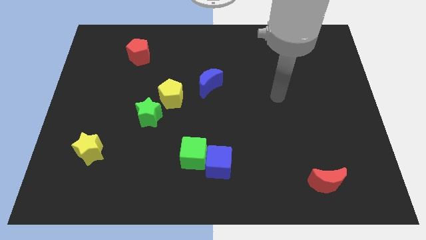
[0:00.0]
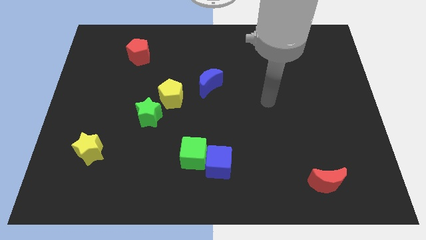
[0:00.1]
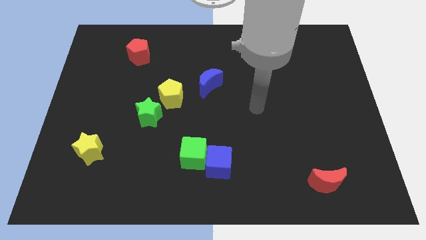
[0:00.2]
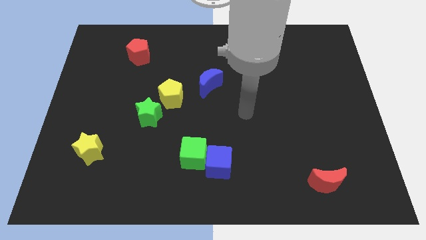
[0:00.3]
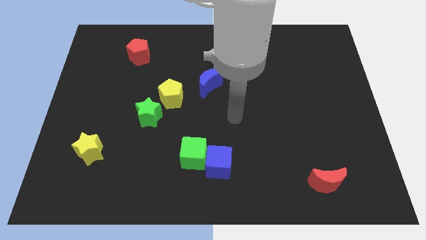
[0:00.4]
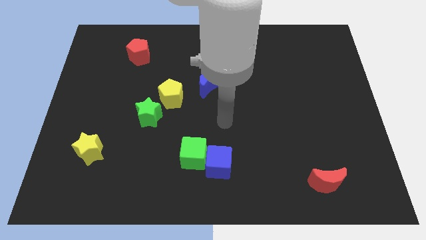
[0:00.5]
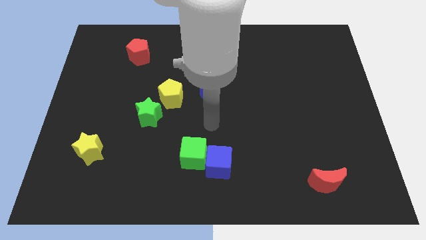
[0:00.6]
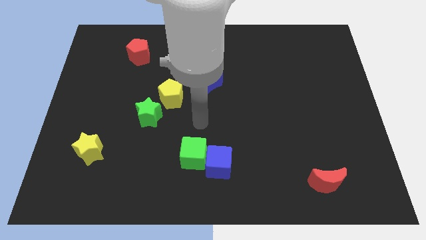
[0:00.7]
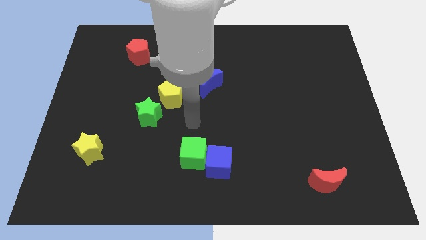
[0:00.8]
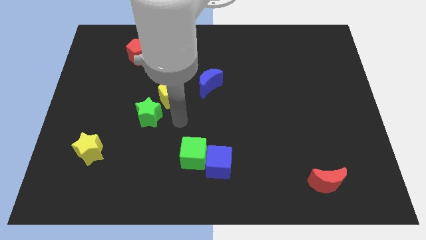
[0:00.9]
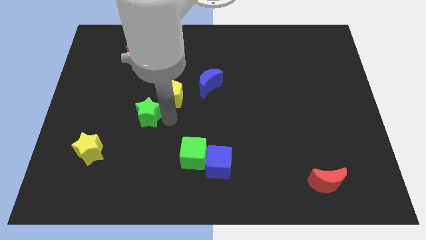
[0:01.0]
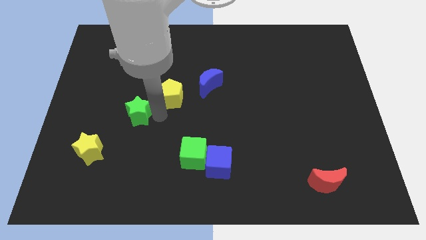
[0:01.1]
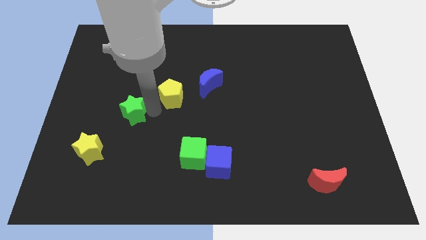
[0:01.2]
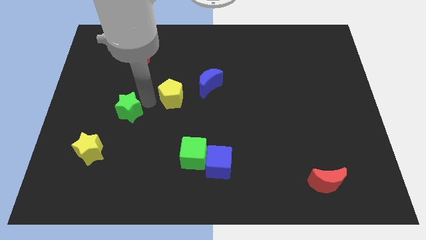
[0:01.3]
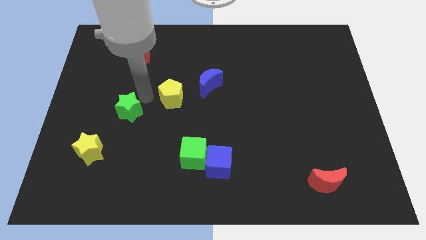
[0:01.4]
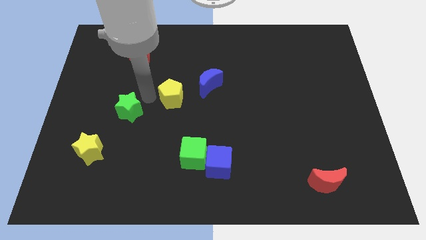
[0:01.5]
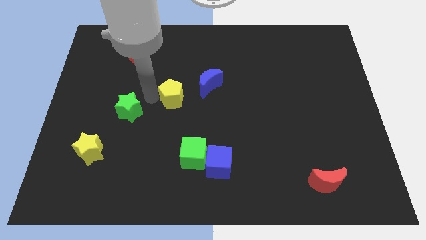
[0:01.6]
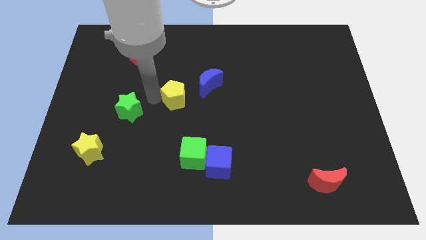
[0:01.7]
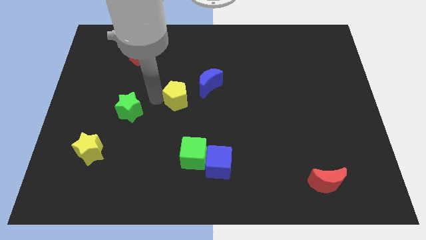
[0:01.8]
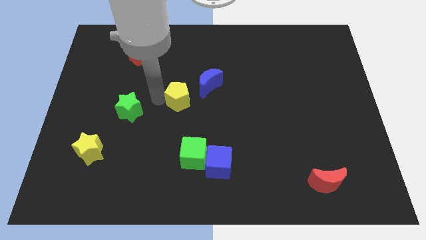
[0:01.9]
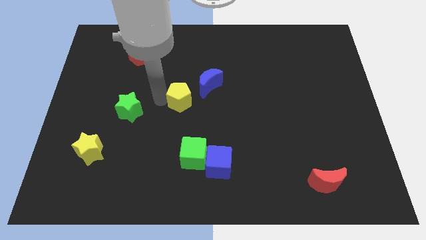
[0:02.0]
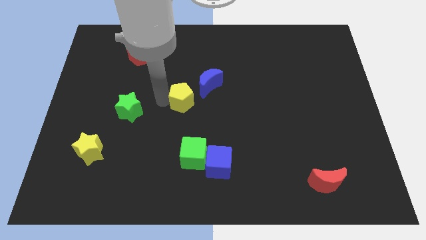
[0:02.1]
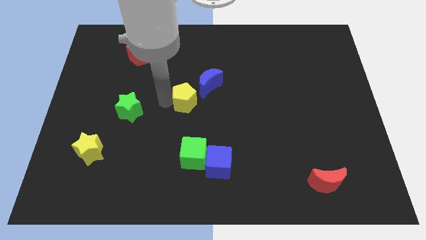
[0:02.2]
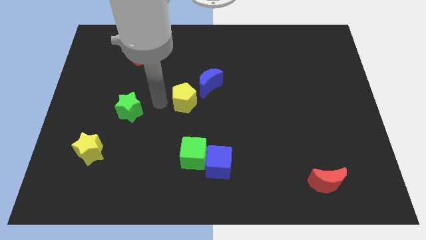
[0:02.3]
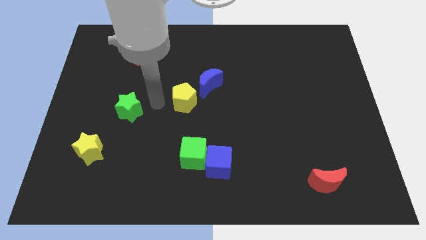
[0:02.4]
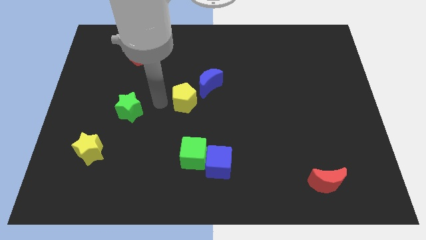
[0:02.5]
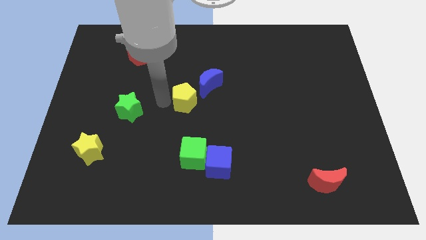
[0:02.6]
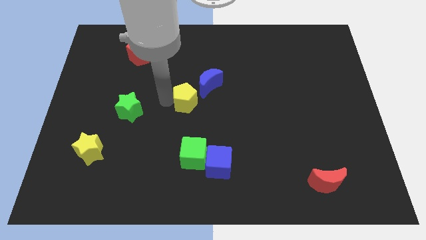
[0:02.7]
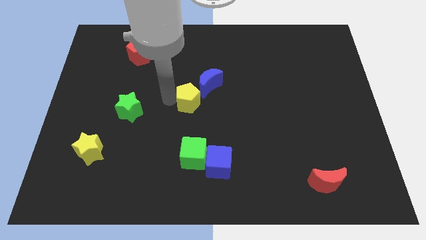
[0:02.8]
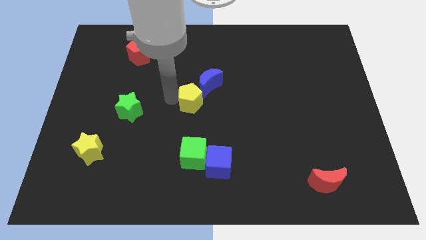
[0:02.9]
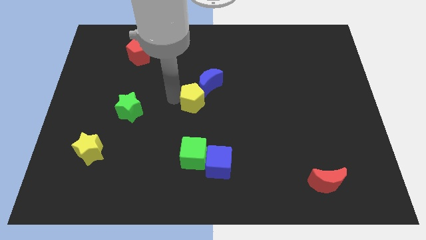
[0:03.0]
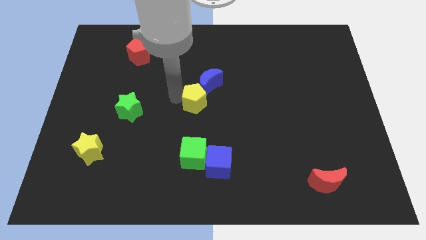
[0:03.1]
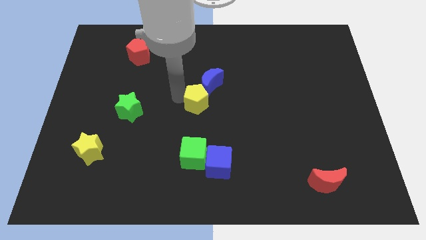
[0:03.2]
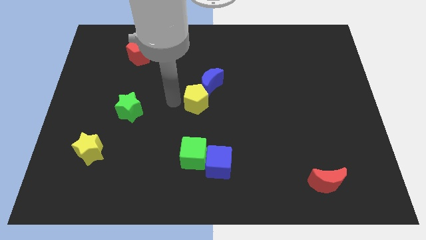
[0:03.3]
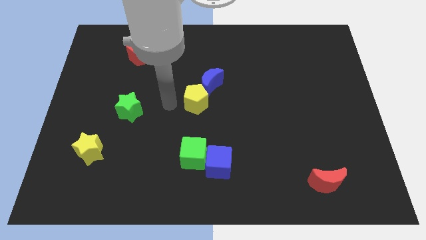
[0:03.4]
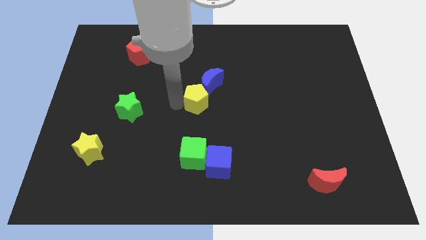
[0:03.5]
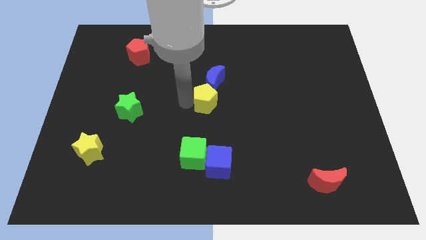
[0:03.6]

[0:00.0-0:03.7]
move the yellow pentagon to the right somewhat

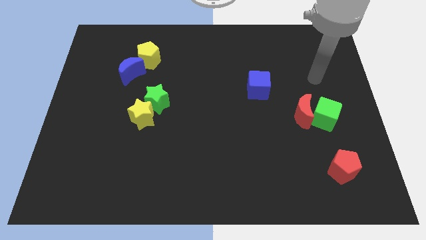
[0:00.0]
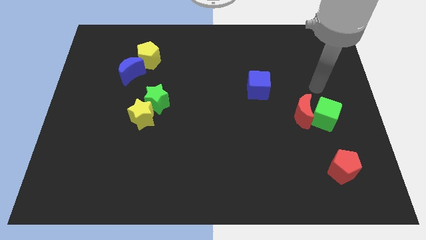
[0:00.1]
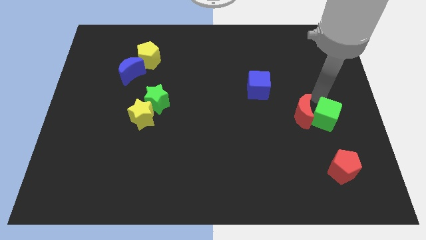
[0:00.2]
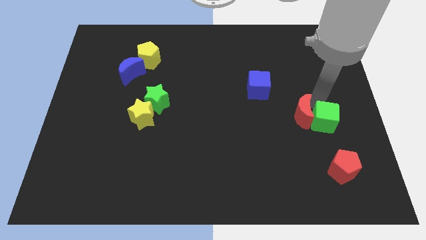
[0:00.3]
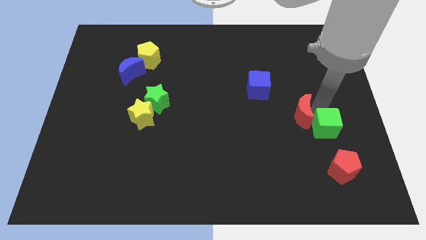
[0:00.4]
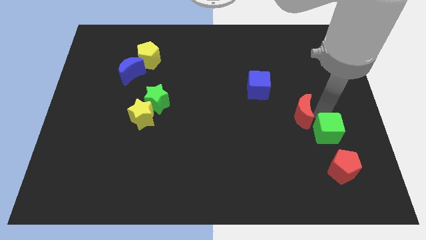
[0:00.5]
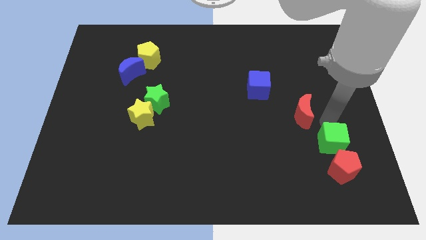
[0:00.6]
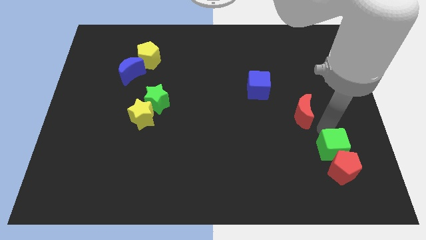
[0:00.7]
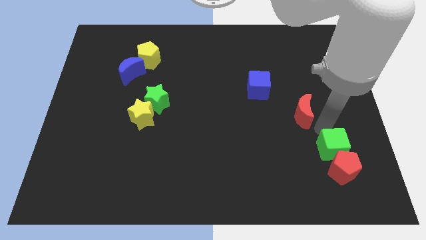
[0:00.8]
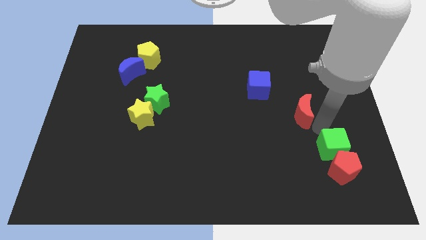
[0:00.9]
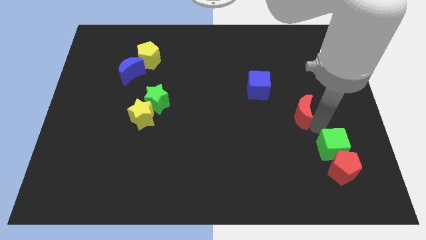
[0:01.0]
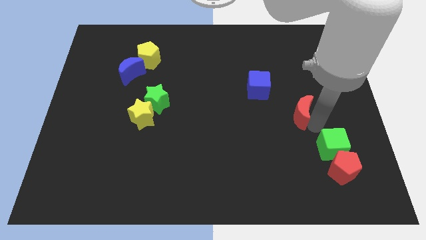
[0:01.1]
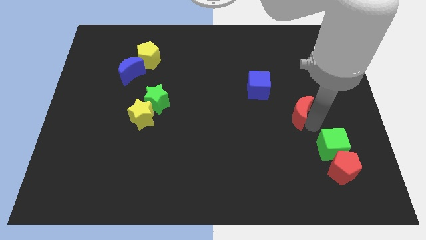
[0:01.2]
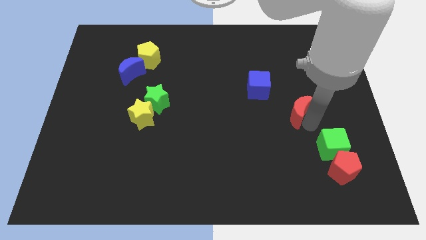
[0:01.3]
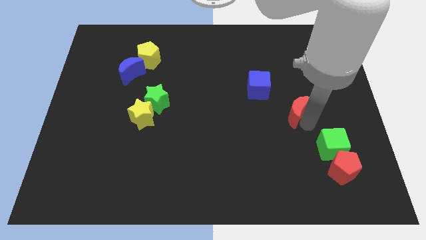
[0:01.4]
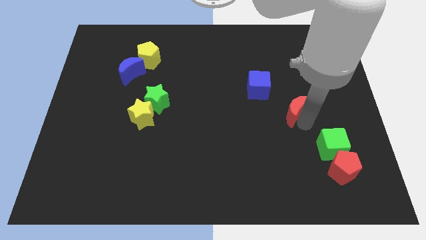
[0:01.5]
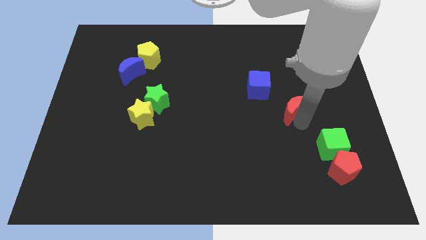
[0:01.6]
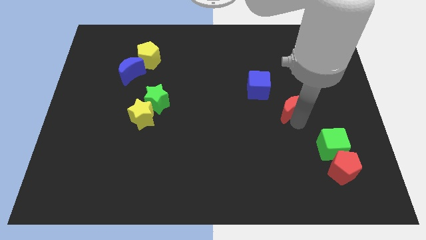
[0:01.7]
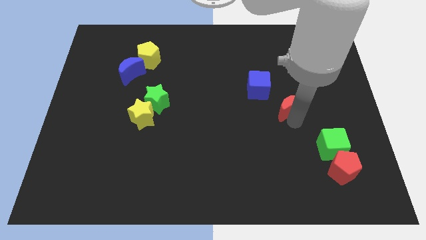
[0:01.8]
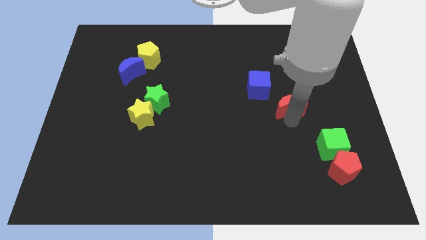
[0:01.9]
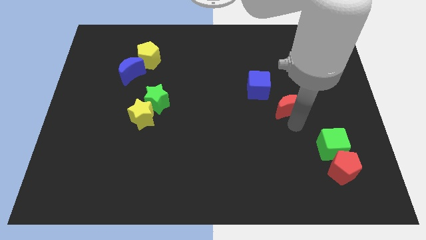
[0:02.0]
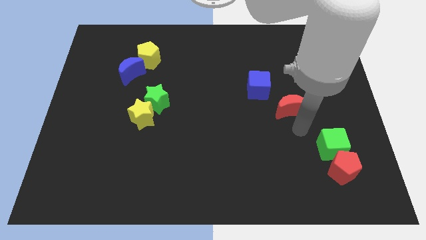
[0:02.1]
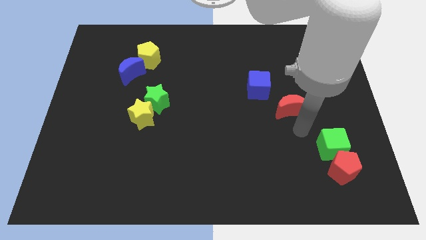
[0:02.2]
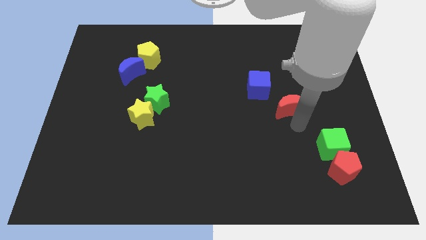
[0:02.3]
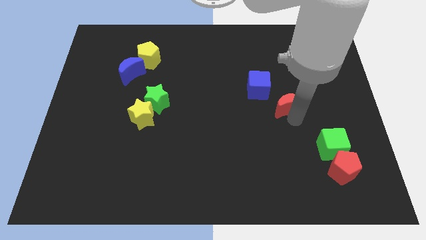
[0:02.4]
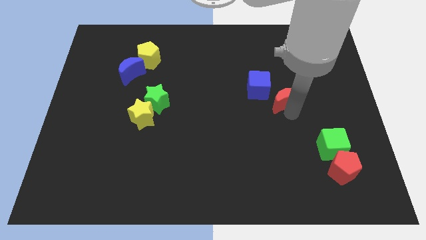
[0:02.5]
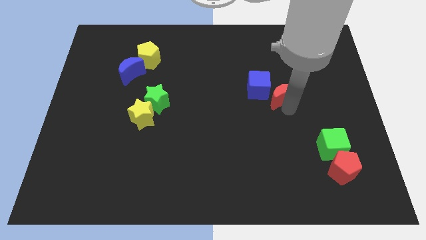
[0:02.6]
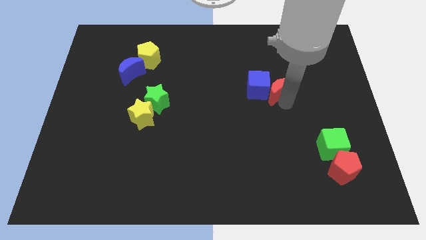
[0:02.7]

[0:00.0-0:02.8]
slightly push the red moon upwards and left diagonally

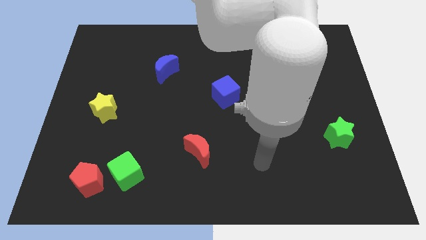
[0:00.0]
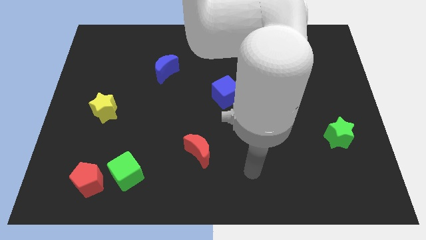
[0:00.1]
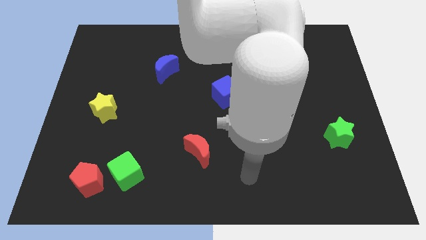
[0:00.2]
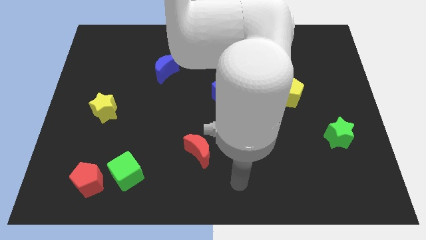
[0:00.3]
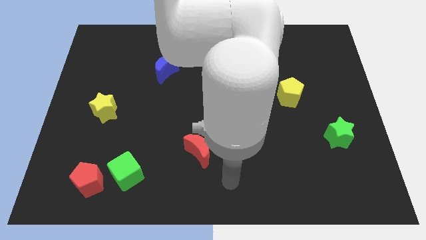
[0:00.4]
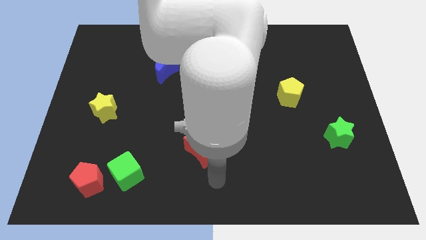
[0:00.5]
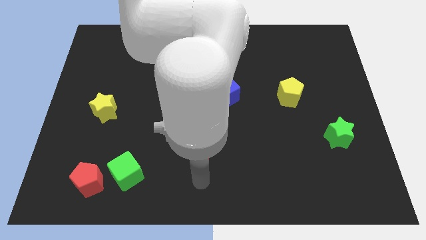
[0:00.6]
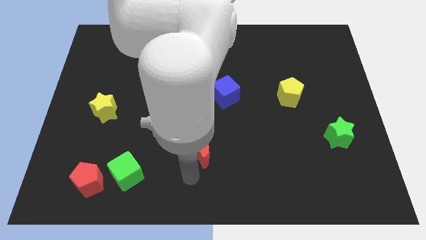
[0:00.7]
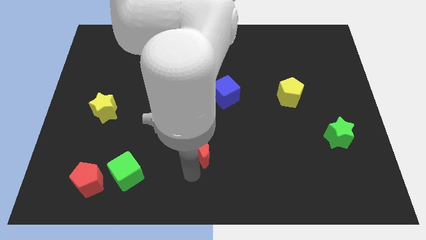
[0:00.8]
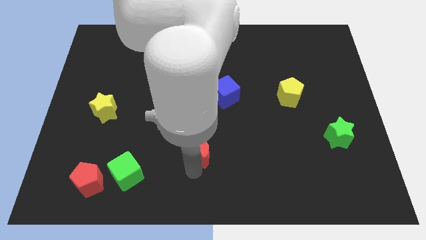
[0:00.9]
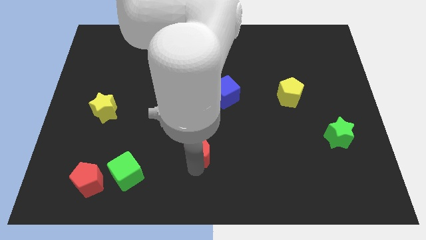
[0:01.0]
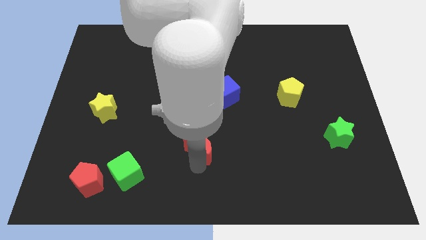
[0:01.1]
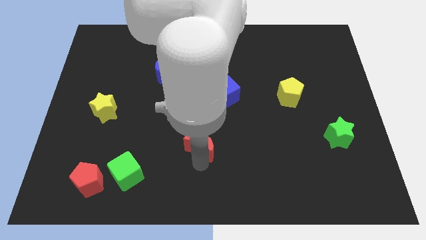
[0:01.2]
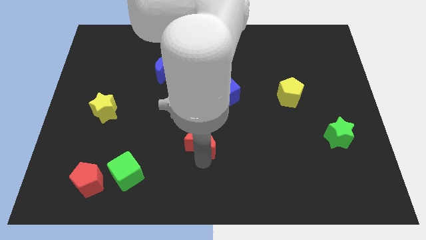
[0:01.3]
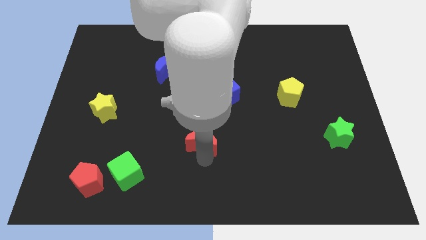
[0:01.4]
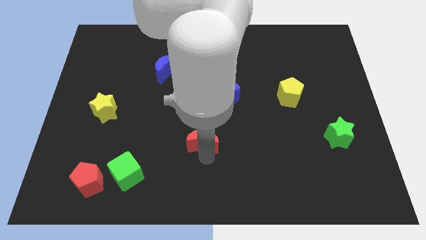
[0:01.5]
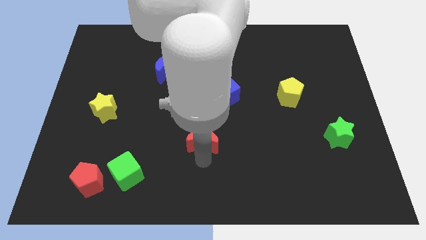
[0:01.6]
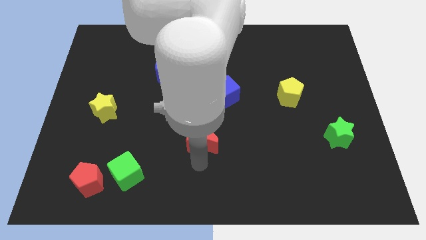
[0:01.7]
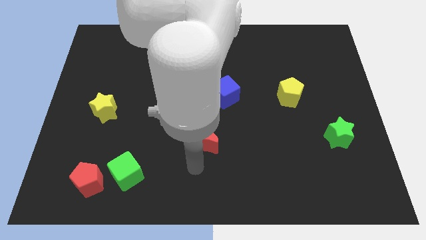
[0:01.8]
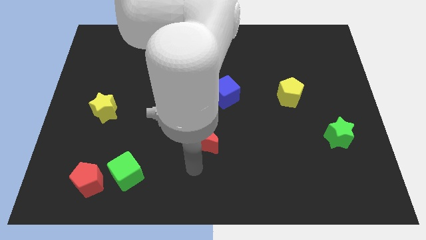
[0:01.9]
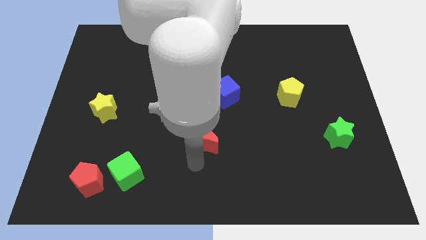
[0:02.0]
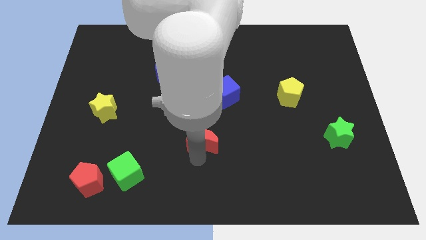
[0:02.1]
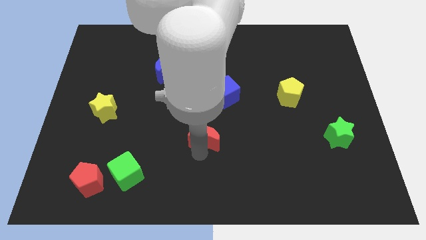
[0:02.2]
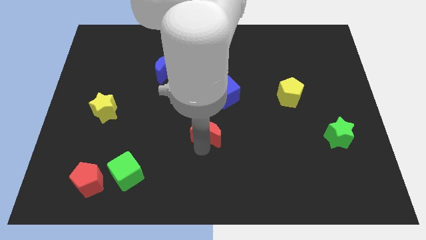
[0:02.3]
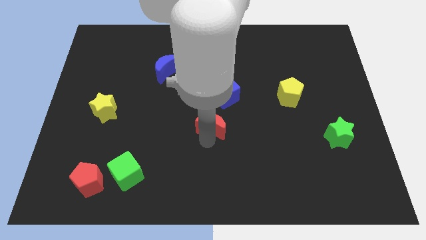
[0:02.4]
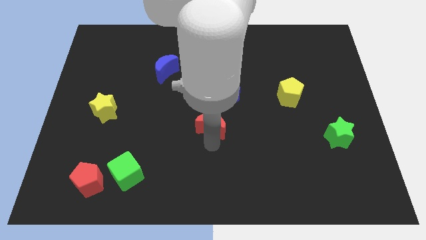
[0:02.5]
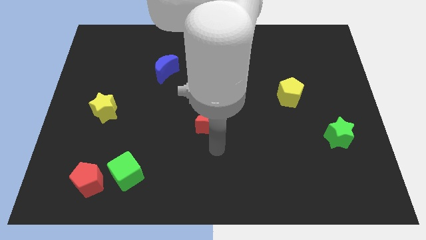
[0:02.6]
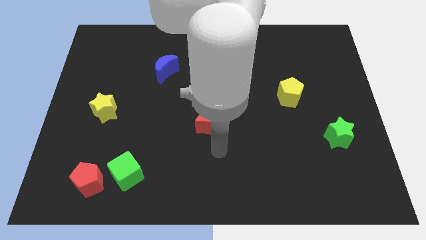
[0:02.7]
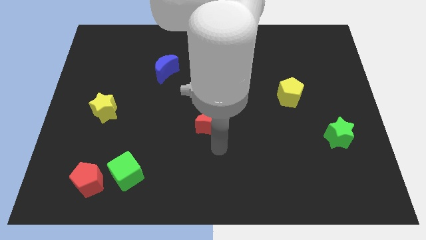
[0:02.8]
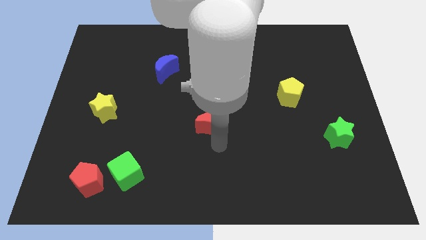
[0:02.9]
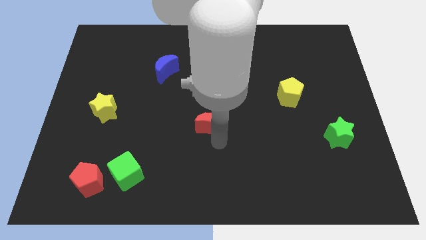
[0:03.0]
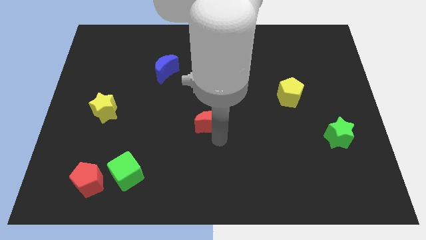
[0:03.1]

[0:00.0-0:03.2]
push the red moon upwards a little bit
